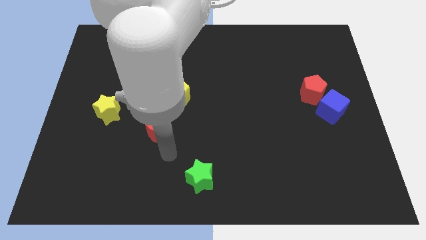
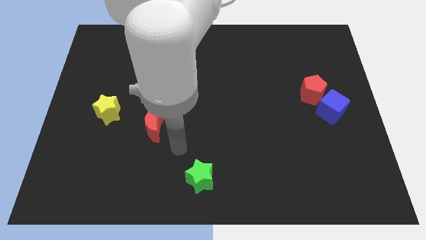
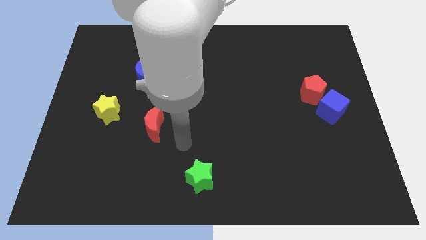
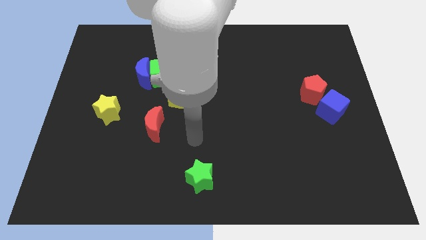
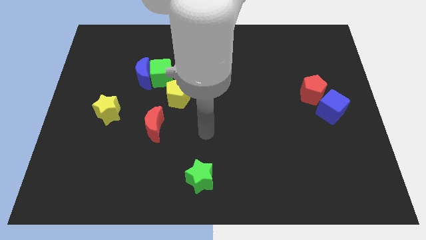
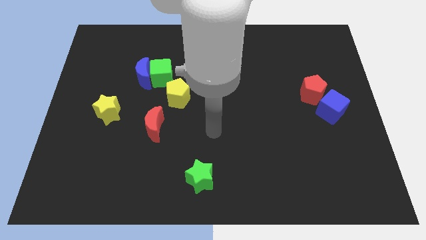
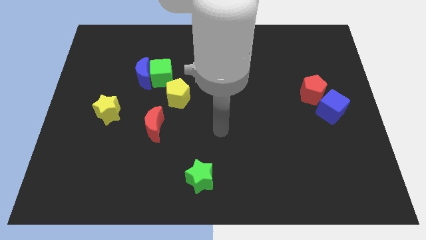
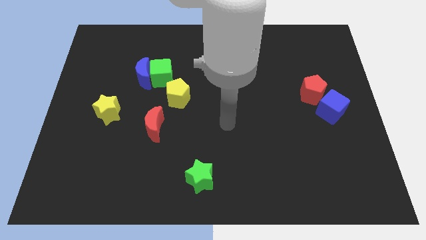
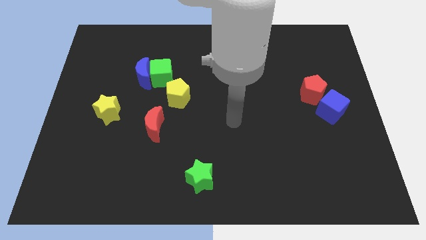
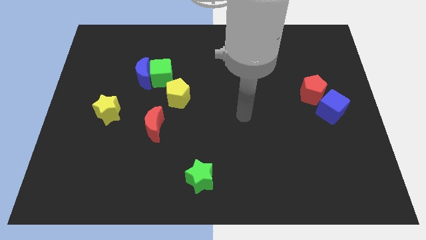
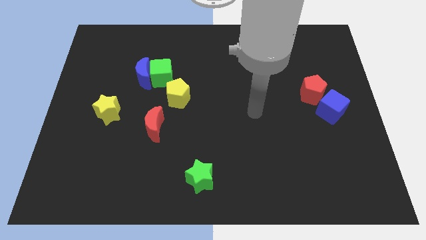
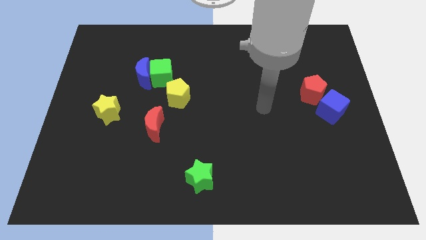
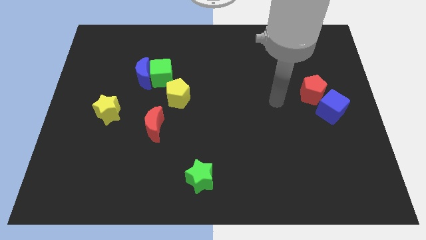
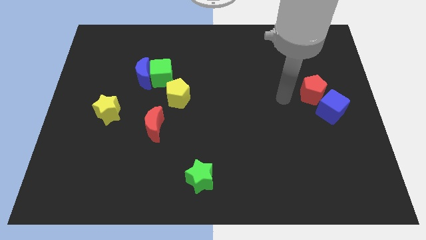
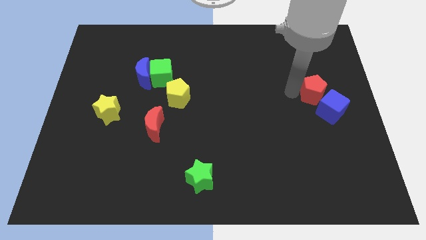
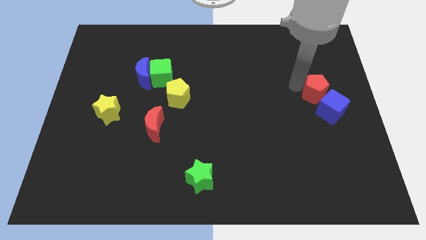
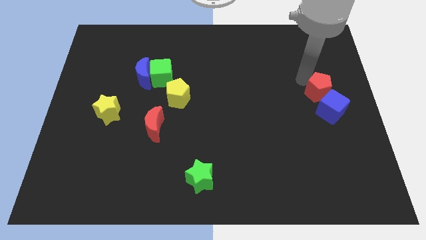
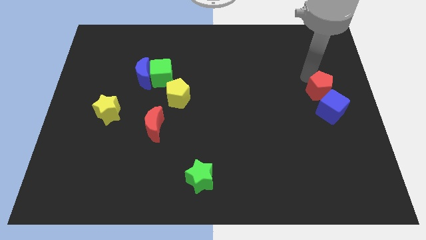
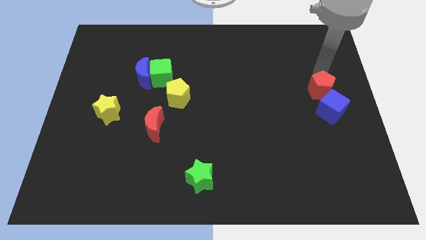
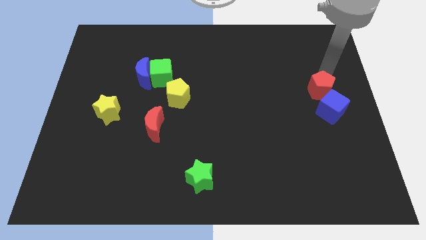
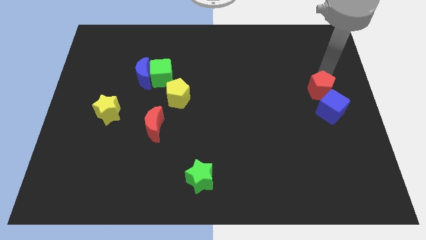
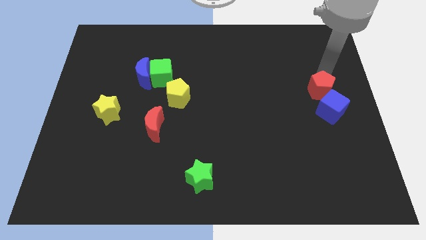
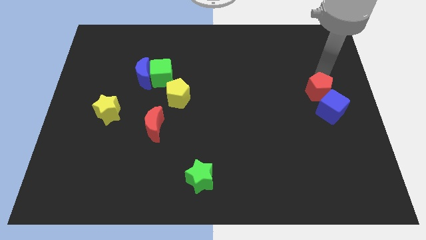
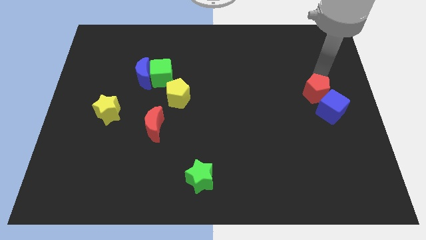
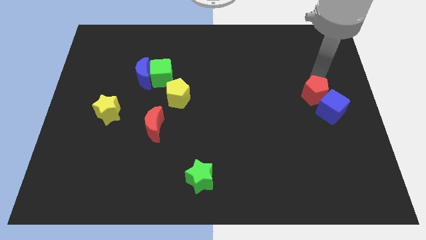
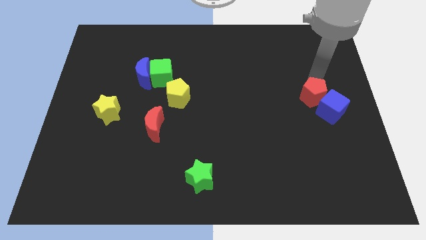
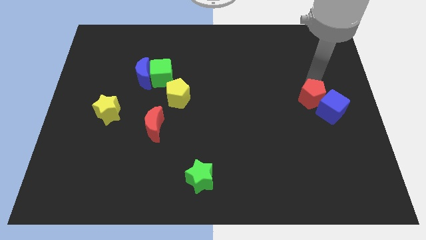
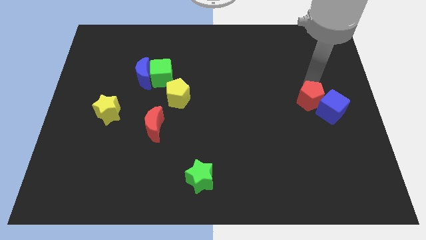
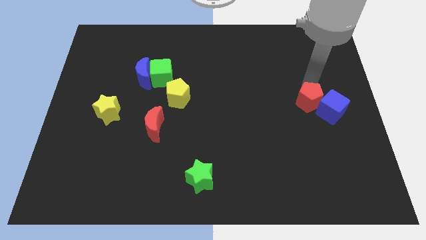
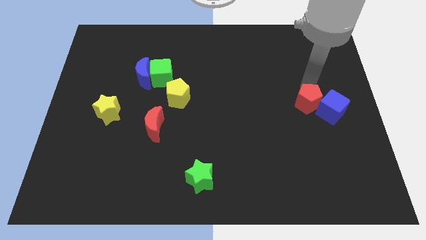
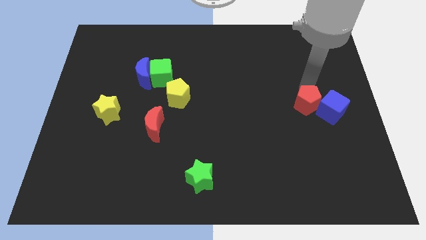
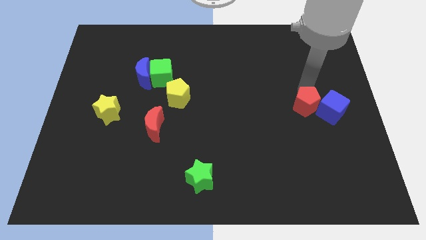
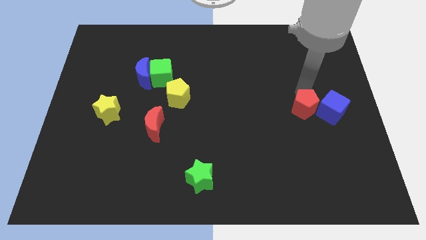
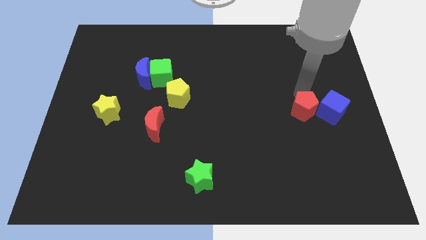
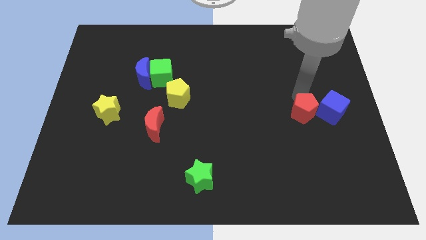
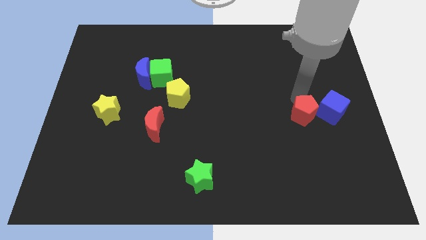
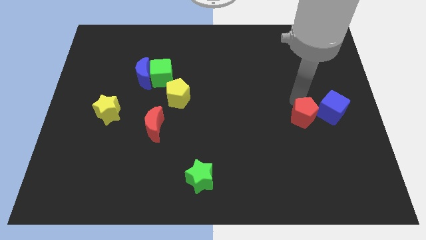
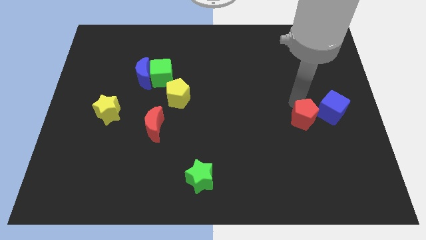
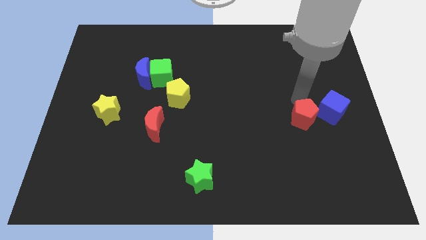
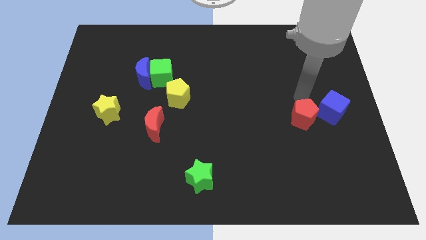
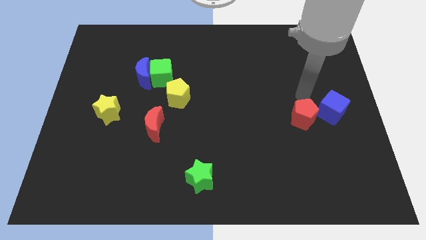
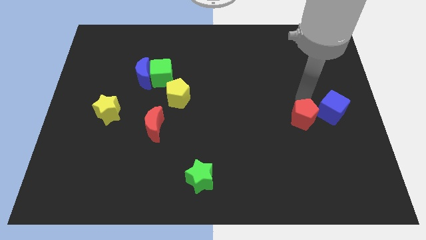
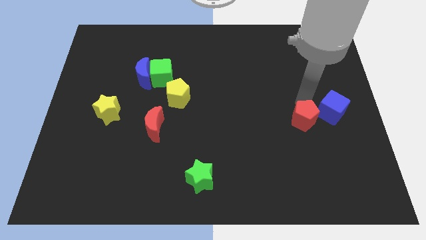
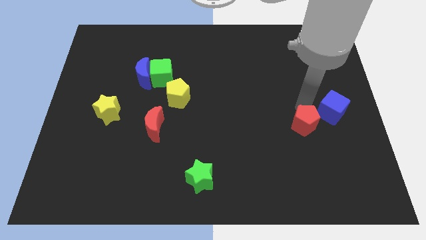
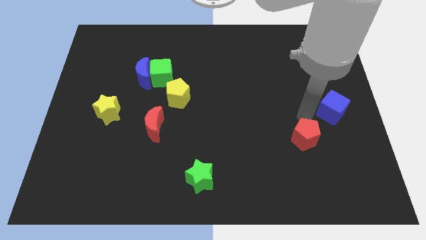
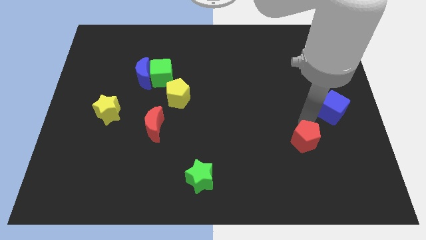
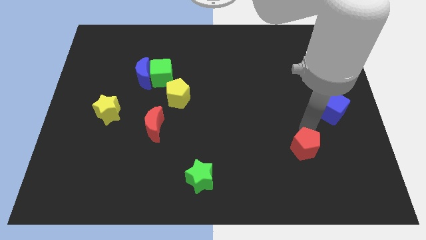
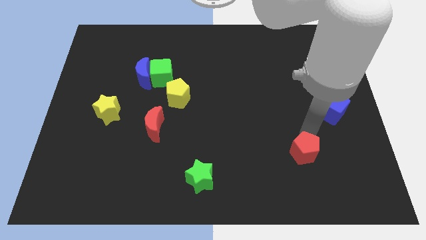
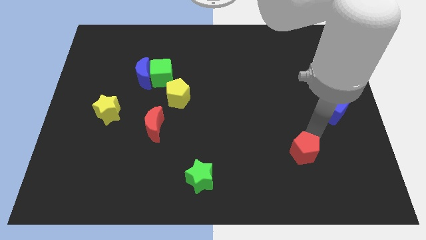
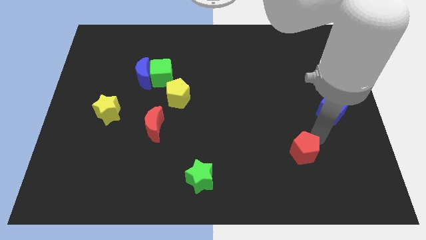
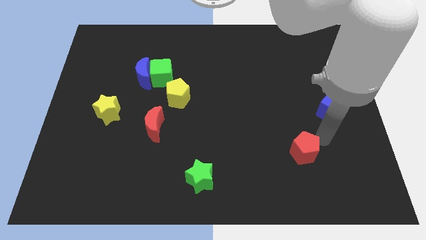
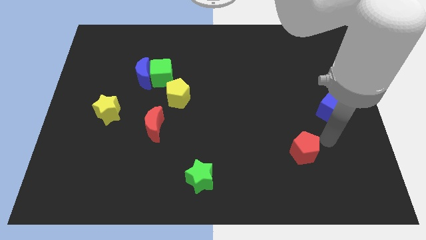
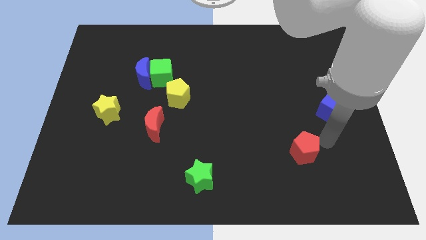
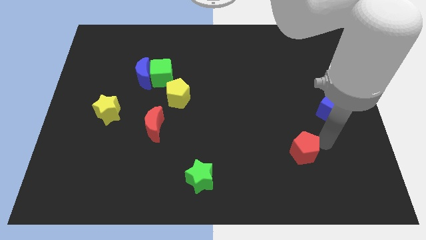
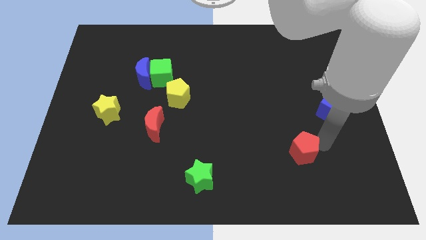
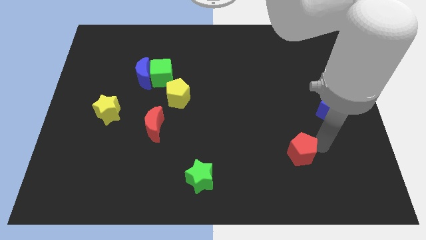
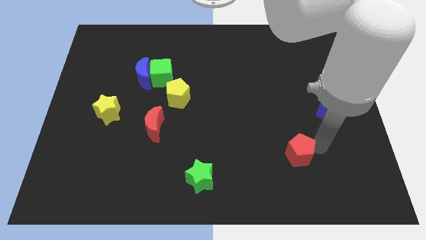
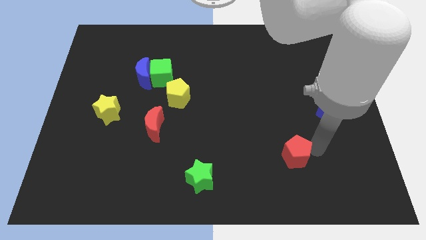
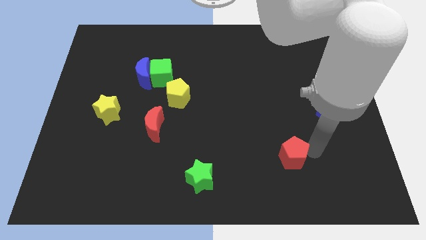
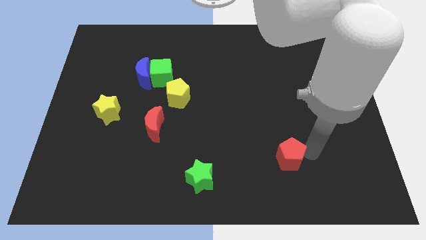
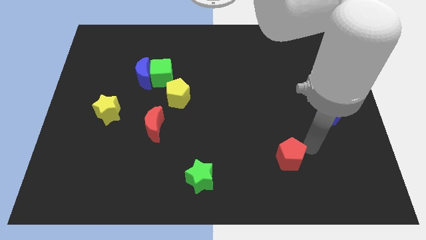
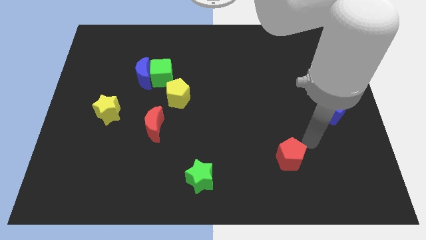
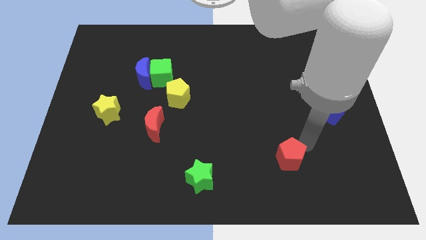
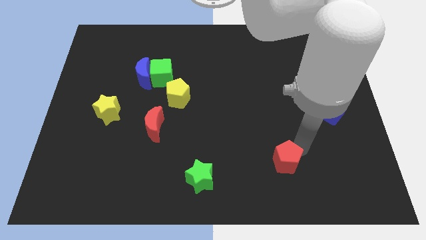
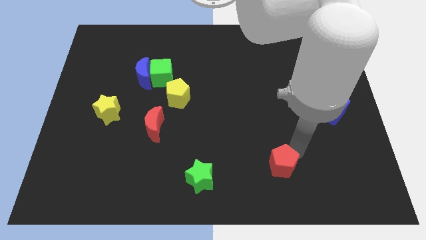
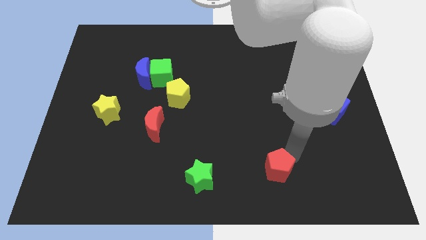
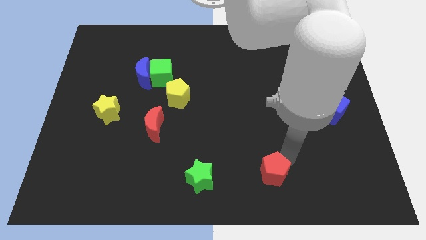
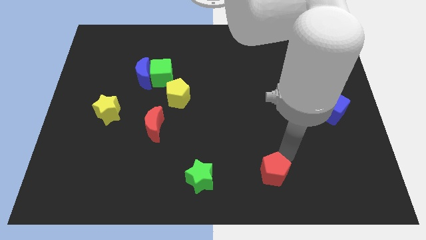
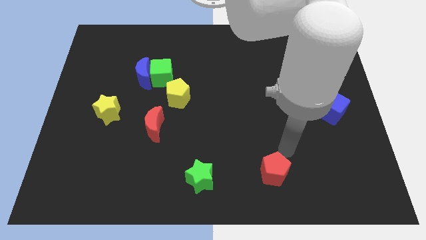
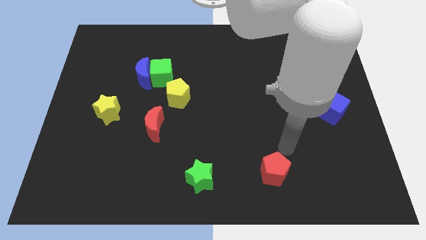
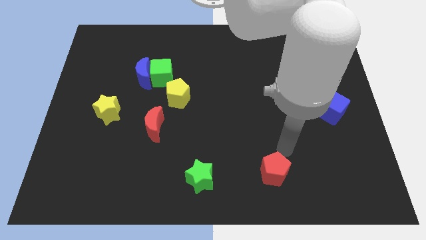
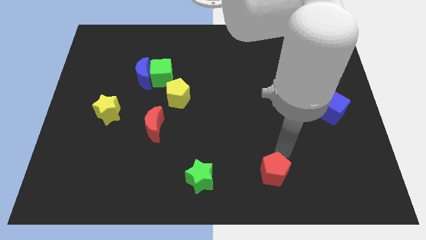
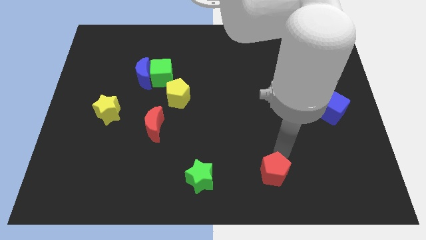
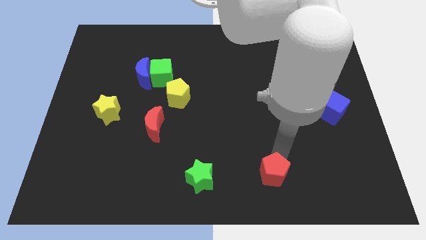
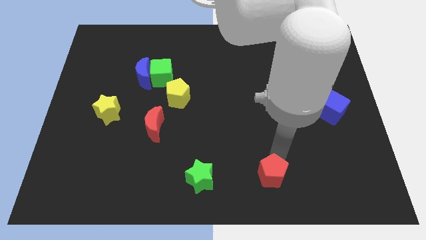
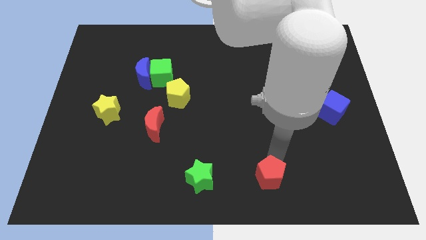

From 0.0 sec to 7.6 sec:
put the red pentagon to the bottom
